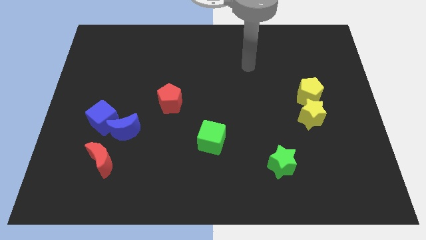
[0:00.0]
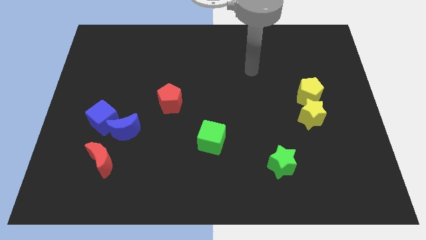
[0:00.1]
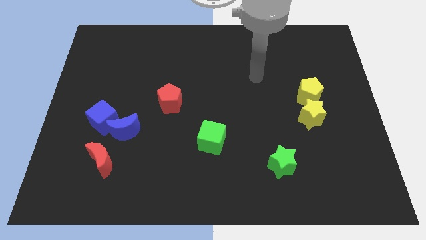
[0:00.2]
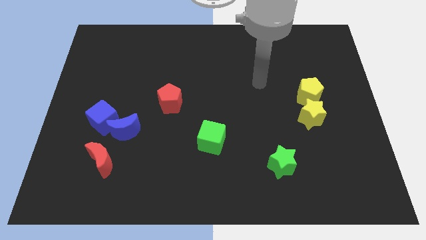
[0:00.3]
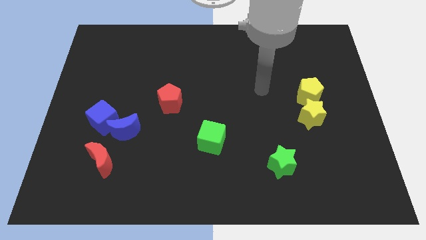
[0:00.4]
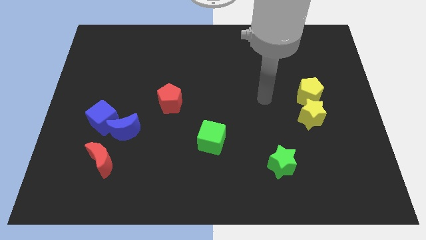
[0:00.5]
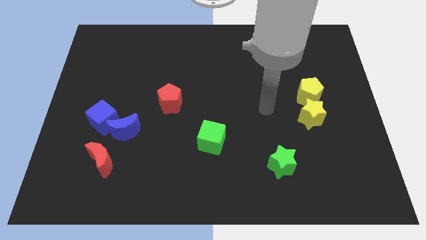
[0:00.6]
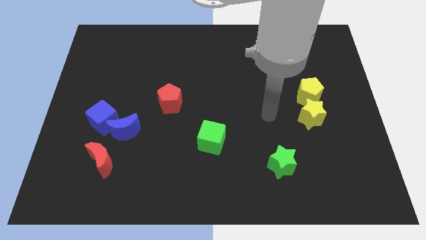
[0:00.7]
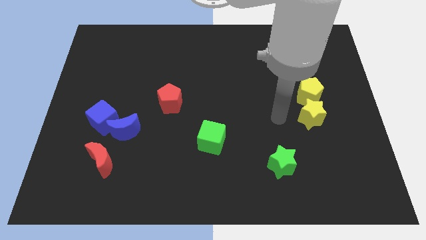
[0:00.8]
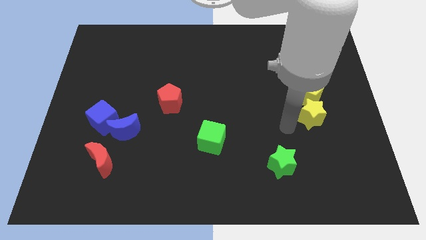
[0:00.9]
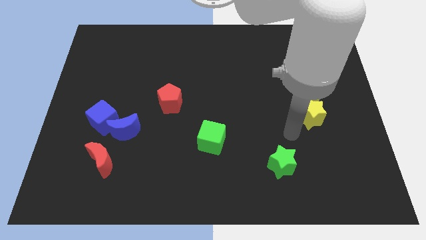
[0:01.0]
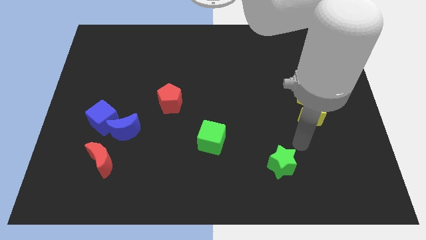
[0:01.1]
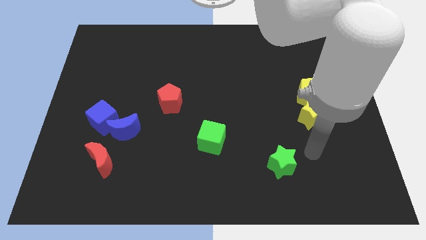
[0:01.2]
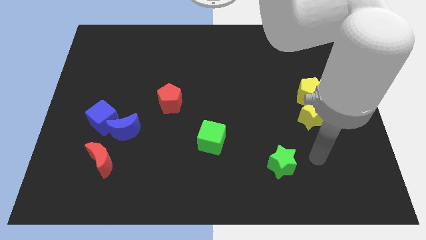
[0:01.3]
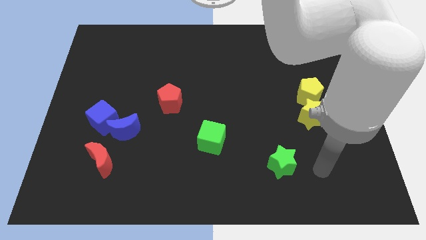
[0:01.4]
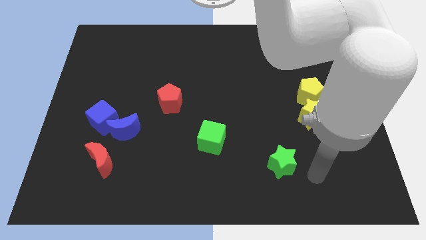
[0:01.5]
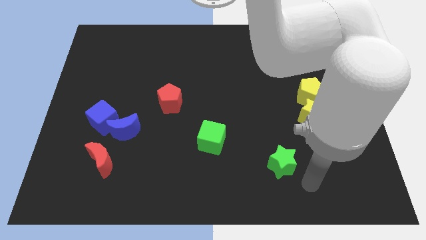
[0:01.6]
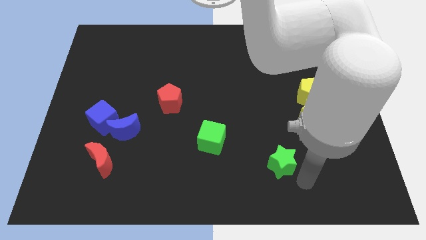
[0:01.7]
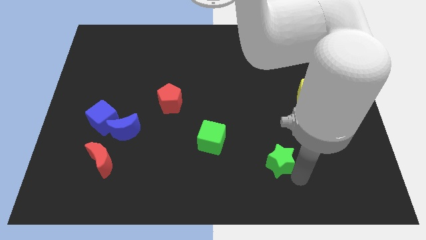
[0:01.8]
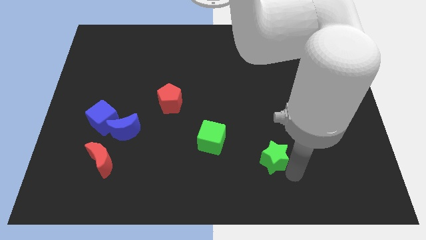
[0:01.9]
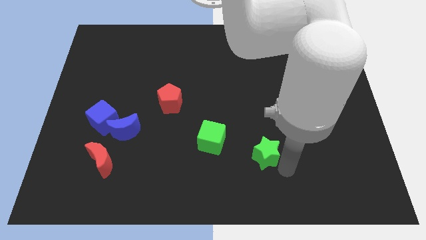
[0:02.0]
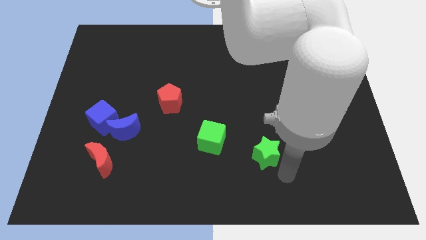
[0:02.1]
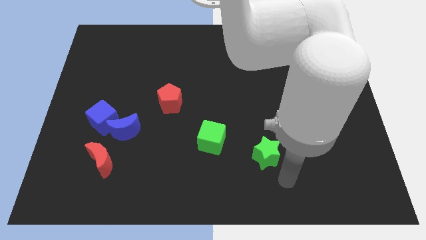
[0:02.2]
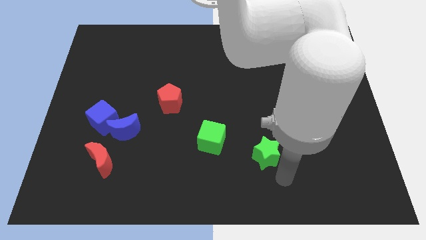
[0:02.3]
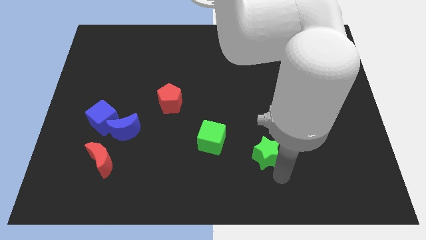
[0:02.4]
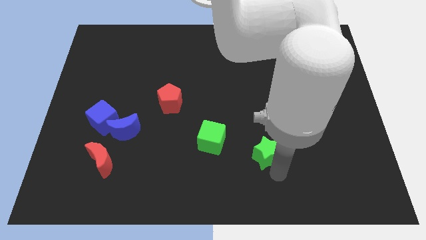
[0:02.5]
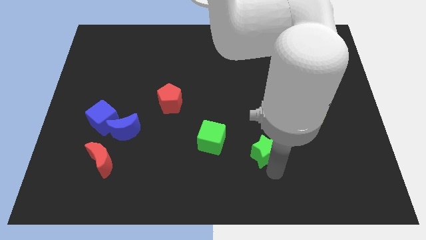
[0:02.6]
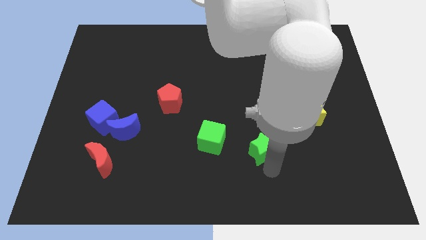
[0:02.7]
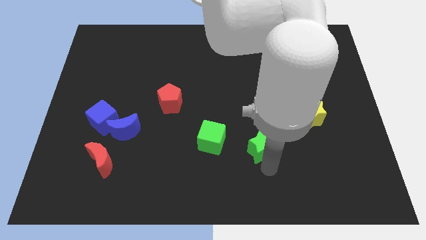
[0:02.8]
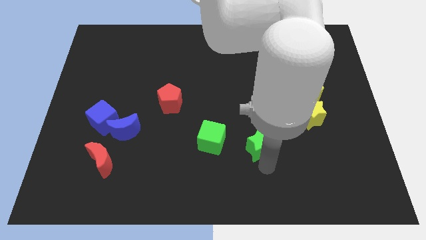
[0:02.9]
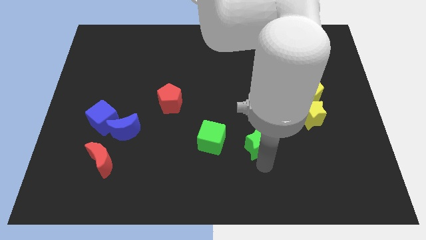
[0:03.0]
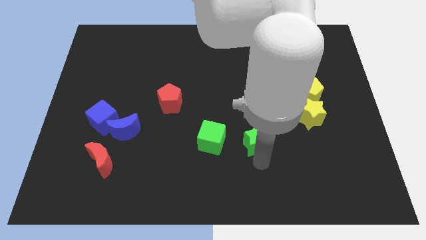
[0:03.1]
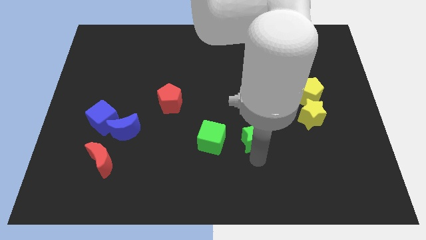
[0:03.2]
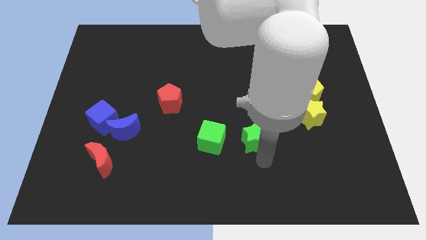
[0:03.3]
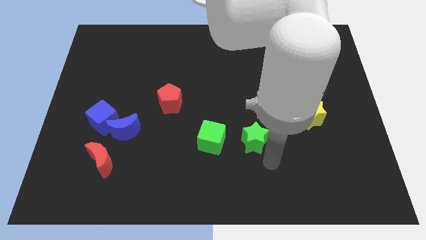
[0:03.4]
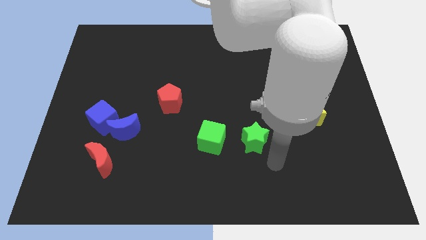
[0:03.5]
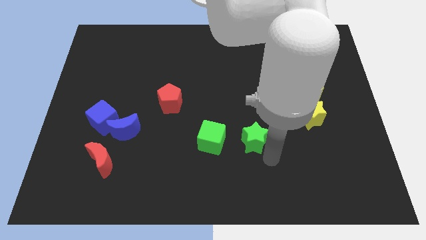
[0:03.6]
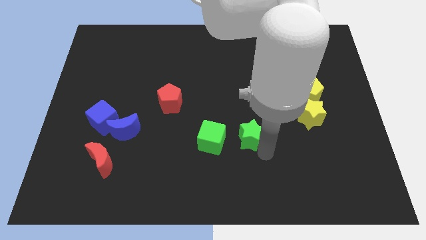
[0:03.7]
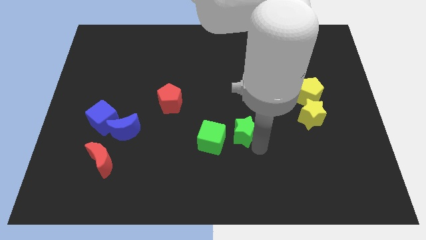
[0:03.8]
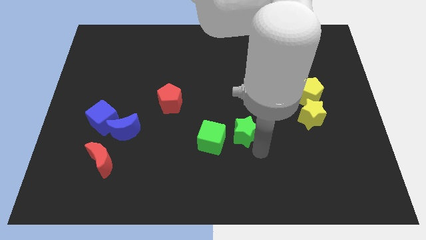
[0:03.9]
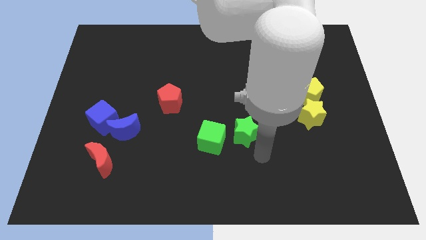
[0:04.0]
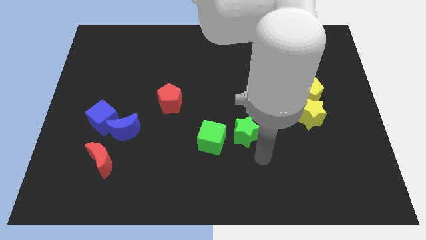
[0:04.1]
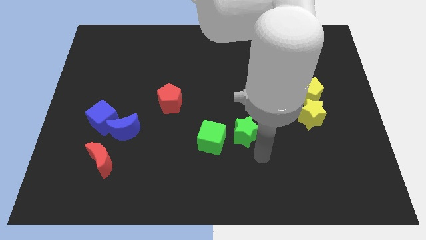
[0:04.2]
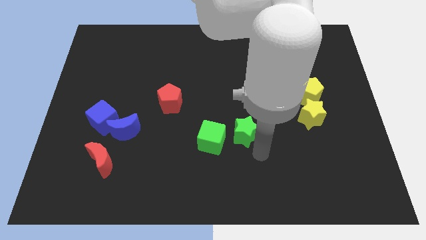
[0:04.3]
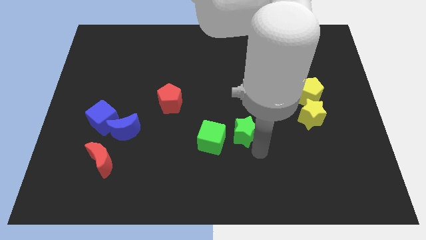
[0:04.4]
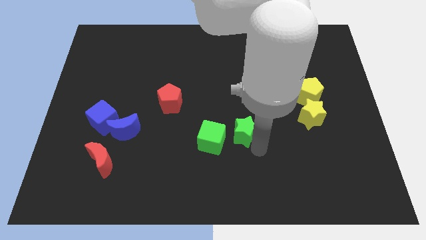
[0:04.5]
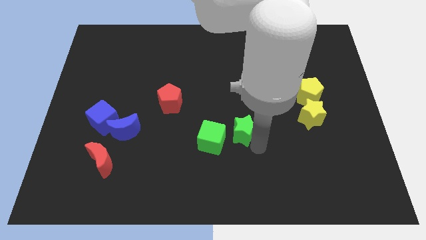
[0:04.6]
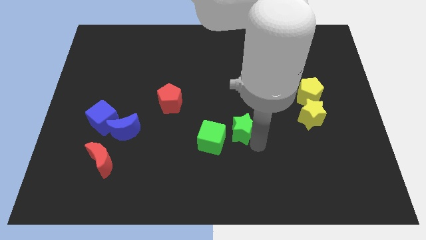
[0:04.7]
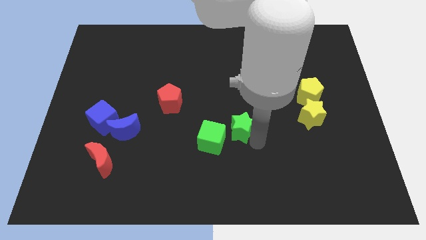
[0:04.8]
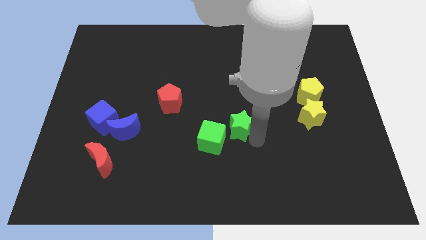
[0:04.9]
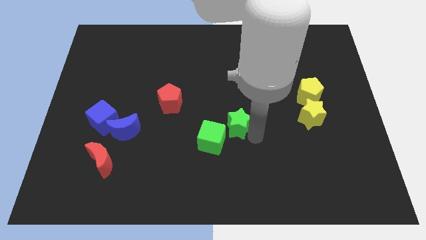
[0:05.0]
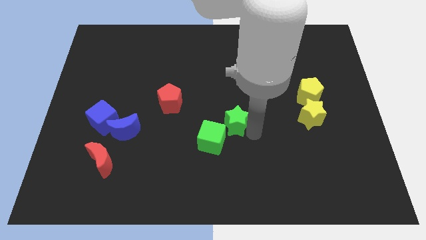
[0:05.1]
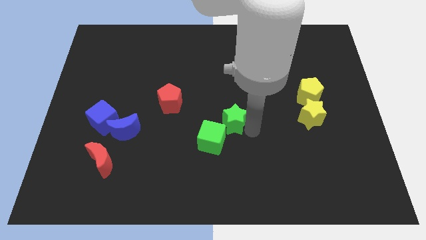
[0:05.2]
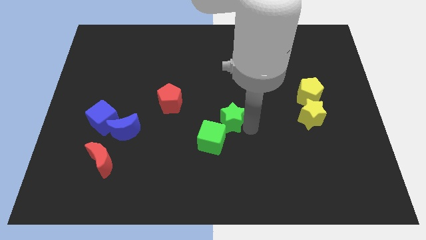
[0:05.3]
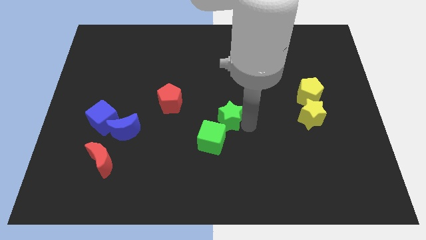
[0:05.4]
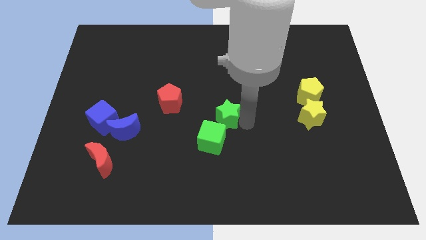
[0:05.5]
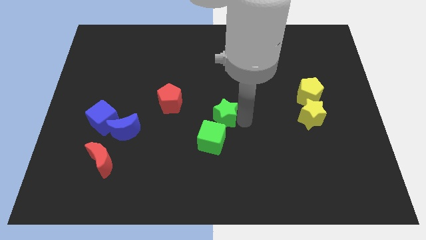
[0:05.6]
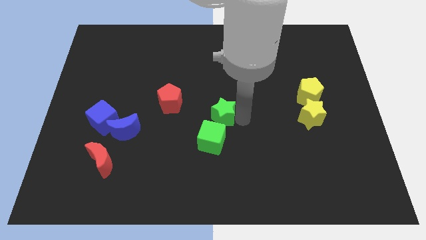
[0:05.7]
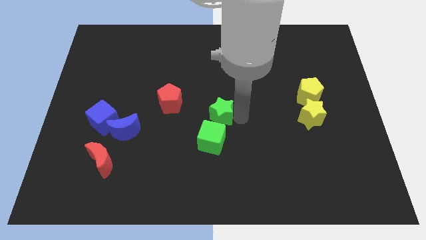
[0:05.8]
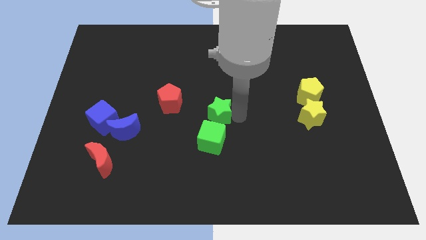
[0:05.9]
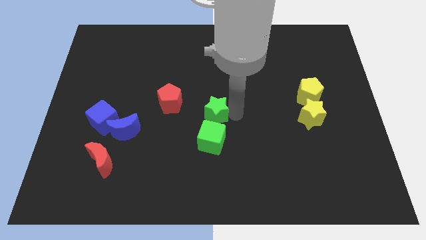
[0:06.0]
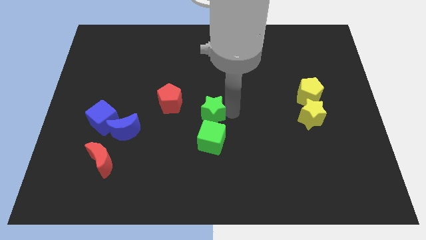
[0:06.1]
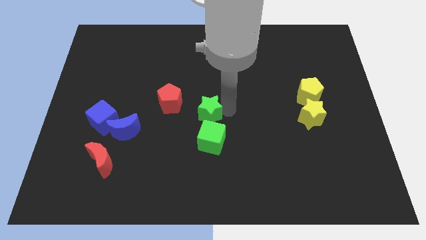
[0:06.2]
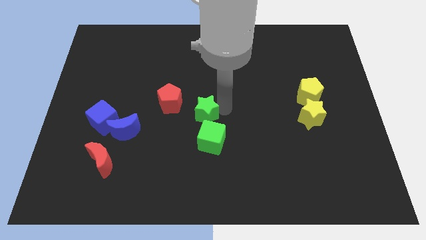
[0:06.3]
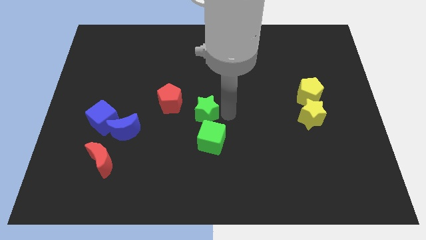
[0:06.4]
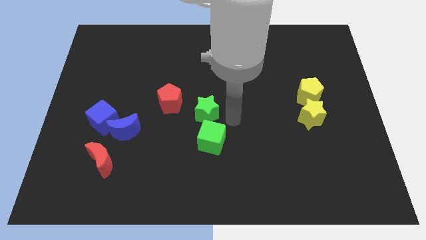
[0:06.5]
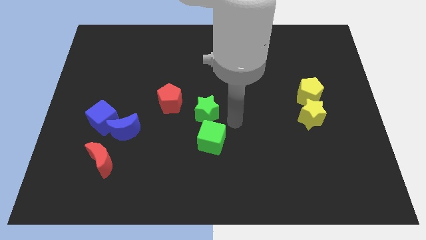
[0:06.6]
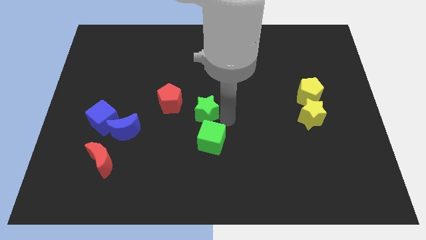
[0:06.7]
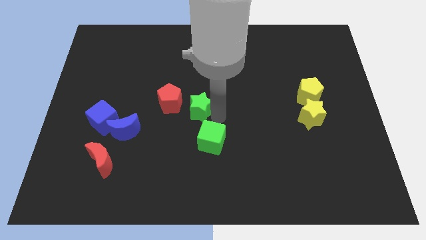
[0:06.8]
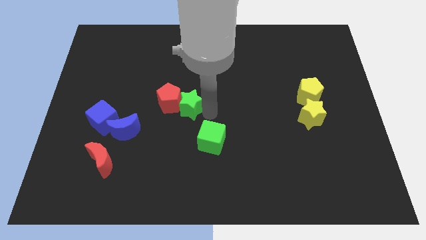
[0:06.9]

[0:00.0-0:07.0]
put the green star close to the red pentagon

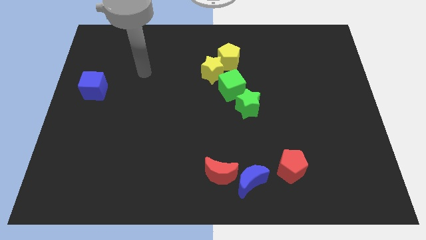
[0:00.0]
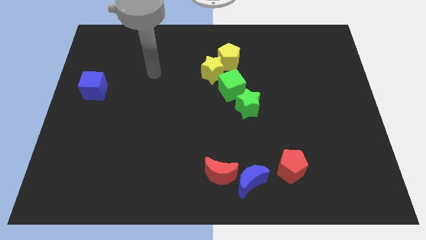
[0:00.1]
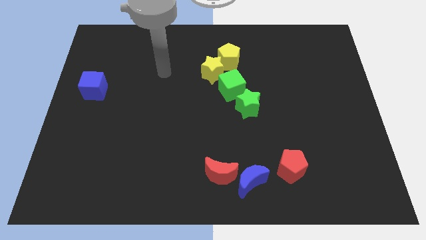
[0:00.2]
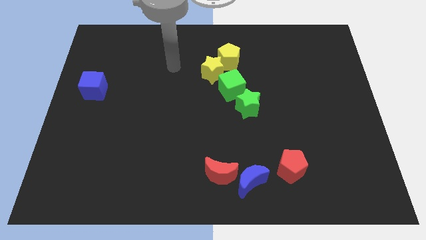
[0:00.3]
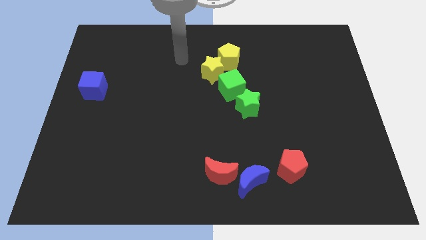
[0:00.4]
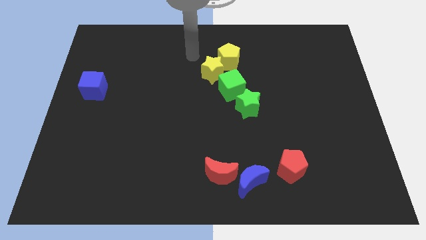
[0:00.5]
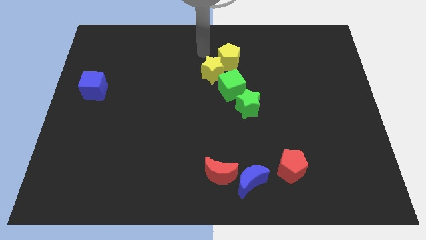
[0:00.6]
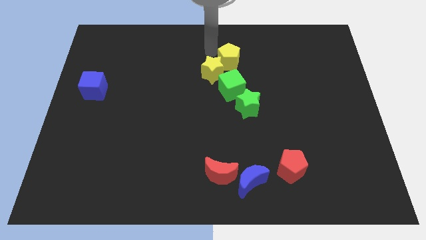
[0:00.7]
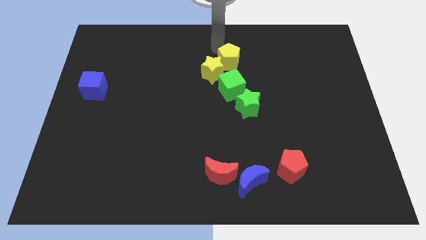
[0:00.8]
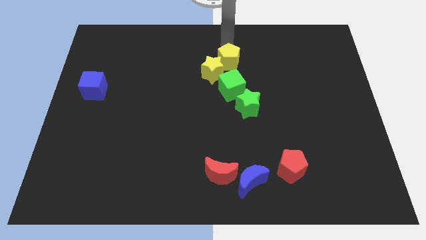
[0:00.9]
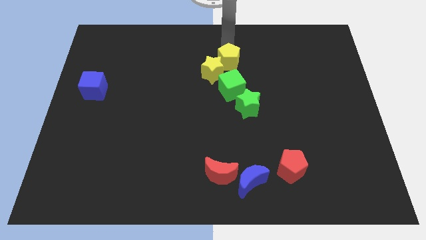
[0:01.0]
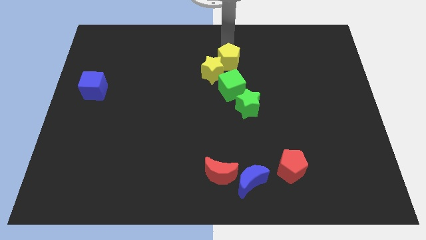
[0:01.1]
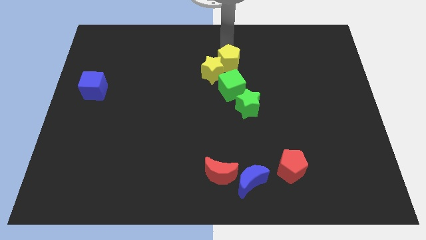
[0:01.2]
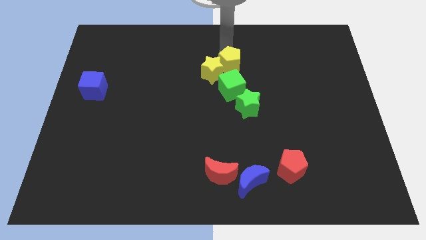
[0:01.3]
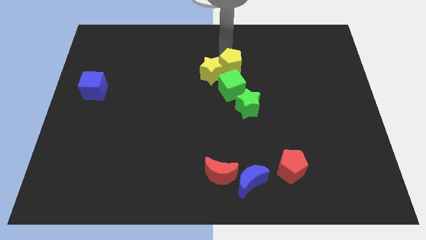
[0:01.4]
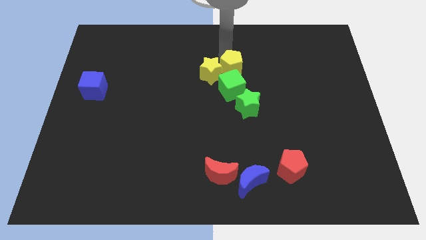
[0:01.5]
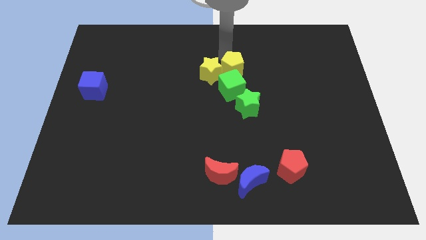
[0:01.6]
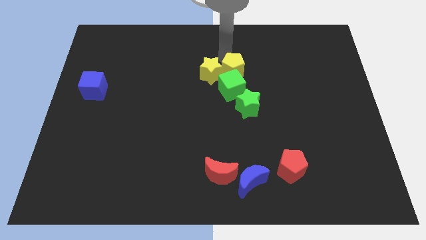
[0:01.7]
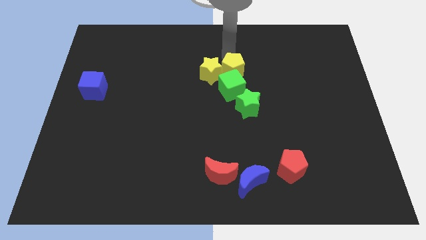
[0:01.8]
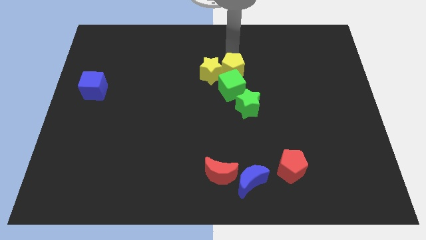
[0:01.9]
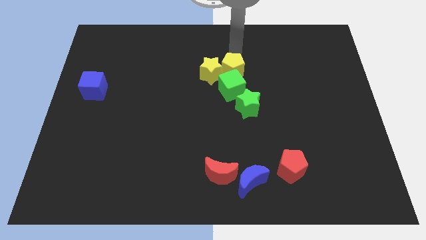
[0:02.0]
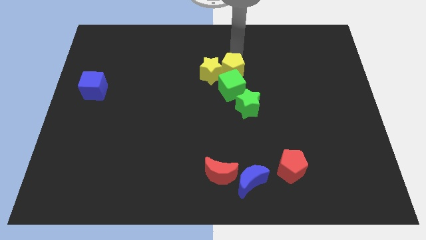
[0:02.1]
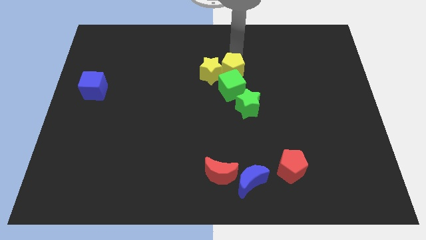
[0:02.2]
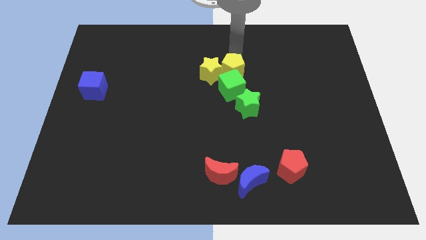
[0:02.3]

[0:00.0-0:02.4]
move the yellow pentagon next to the green cube
